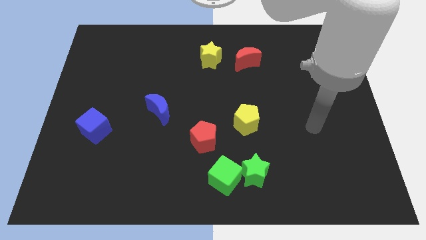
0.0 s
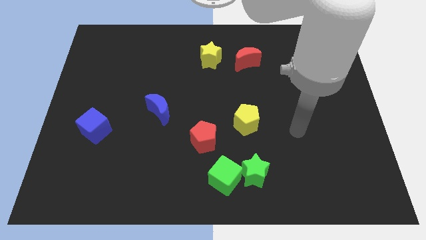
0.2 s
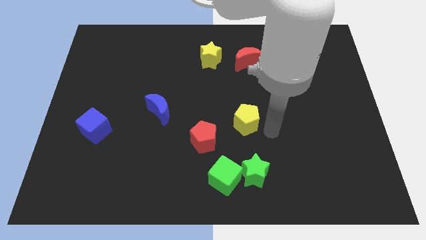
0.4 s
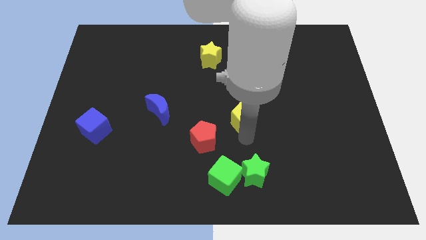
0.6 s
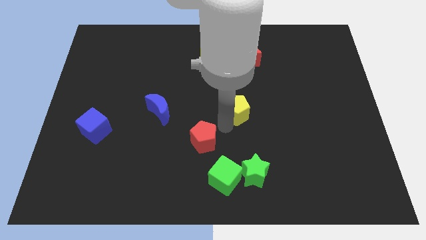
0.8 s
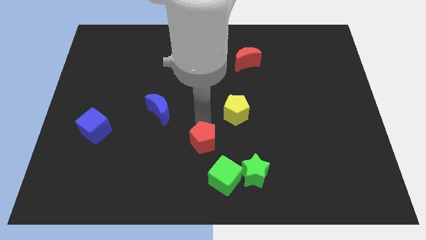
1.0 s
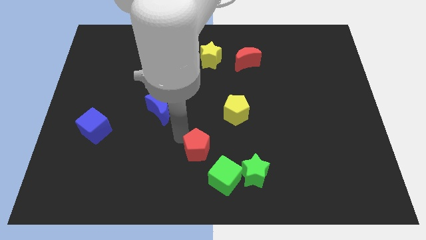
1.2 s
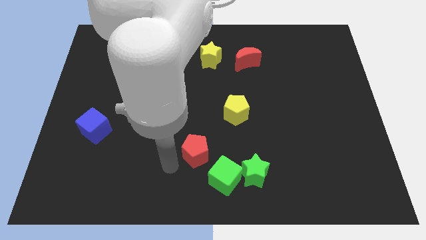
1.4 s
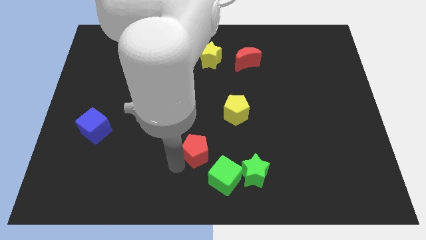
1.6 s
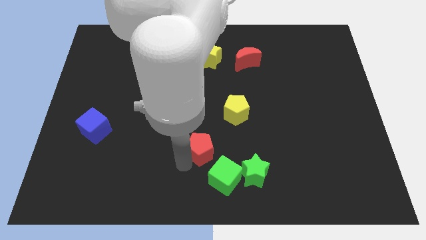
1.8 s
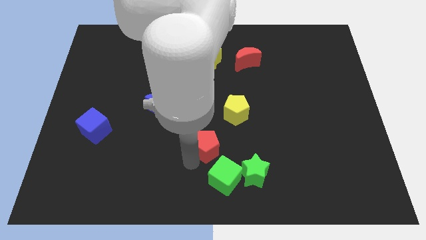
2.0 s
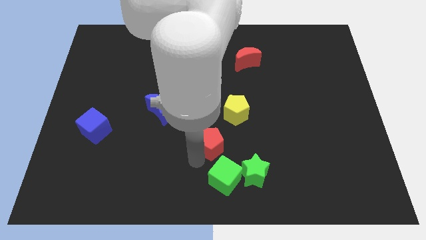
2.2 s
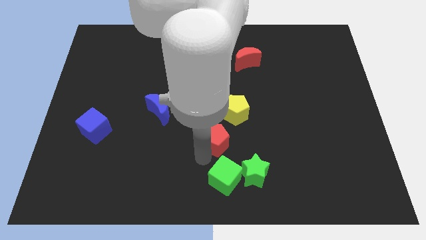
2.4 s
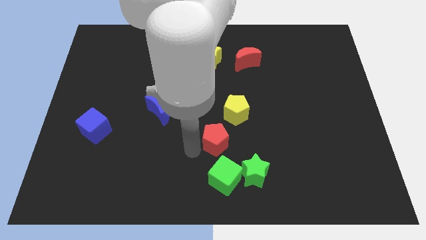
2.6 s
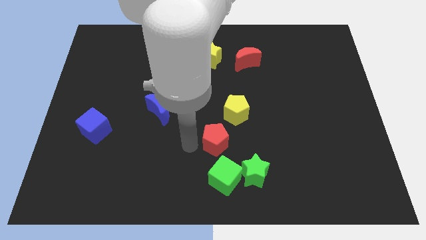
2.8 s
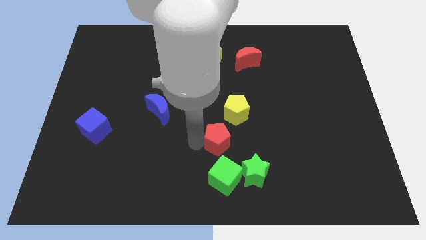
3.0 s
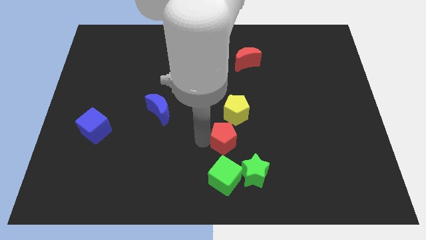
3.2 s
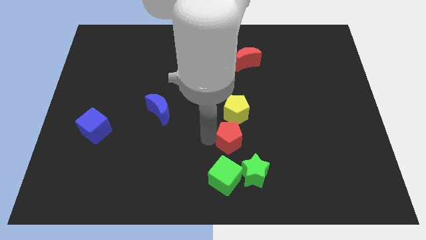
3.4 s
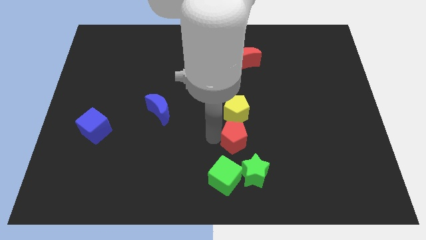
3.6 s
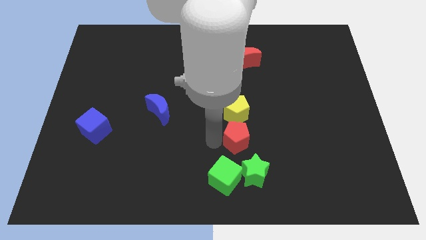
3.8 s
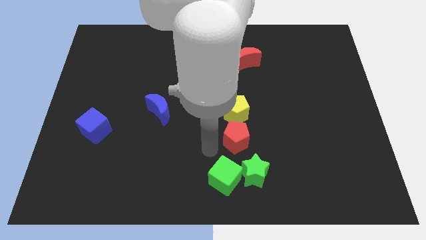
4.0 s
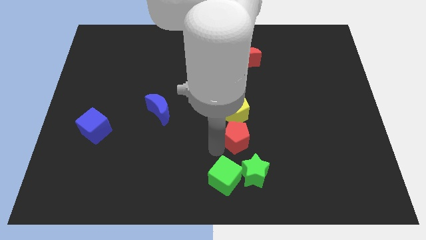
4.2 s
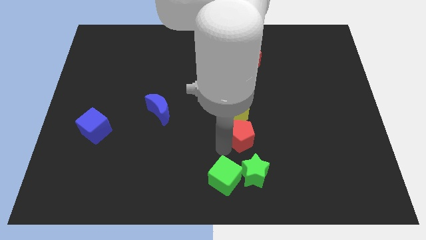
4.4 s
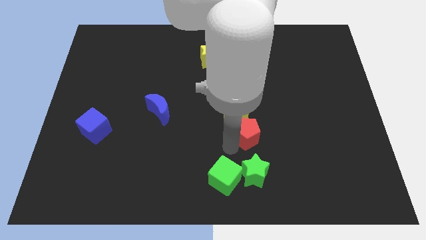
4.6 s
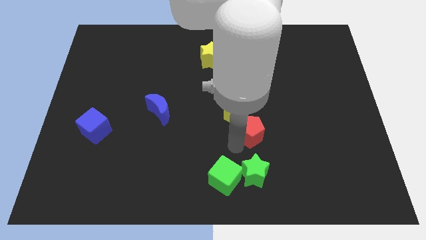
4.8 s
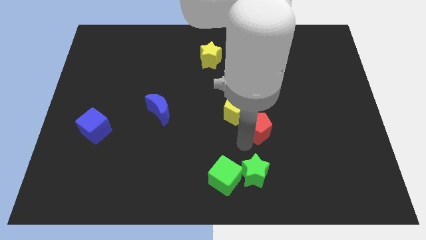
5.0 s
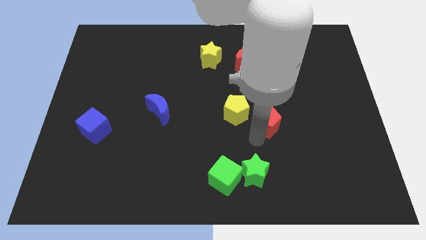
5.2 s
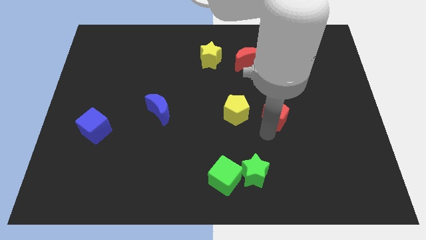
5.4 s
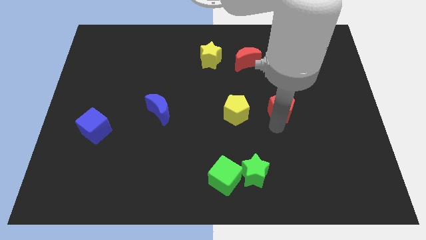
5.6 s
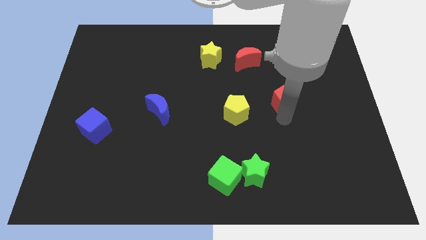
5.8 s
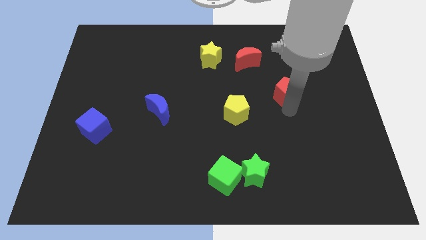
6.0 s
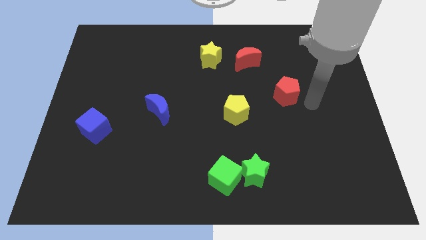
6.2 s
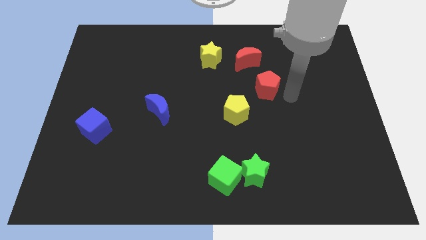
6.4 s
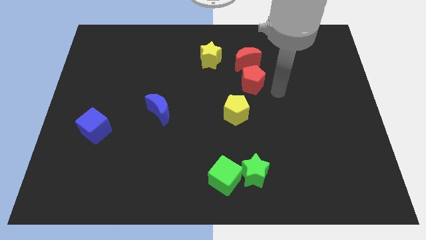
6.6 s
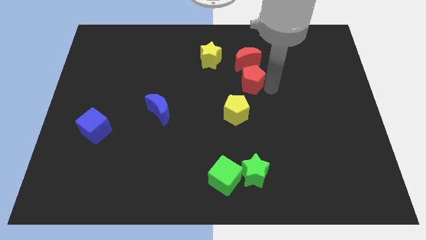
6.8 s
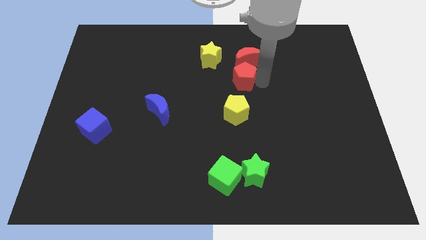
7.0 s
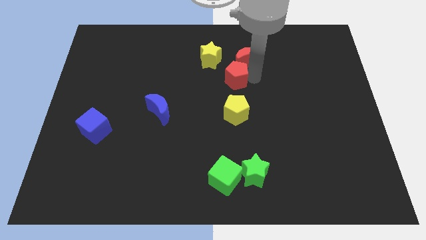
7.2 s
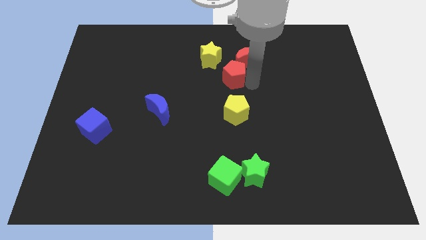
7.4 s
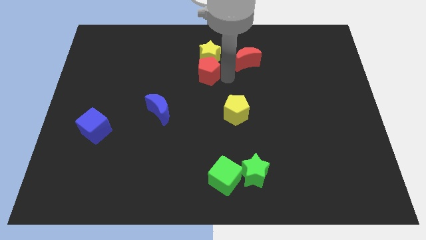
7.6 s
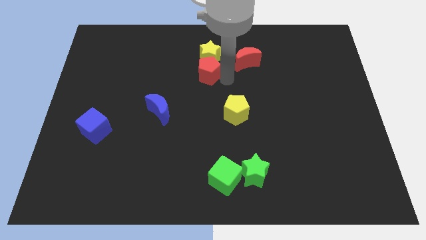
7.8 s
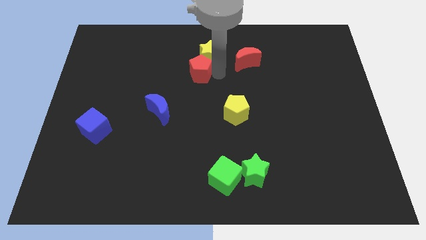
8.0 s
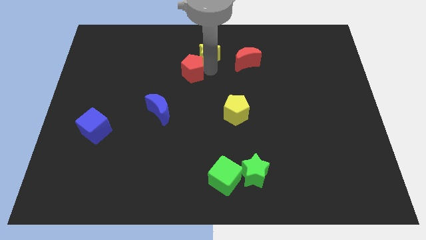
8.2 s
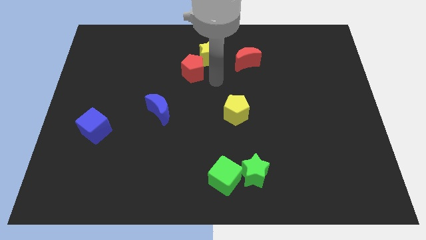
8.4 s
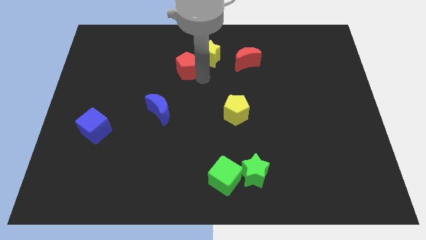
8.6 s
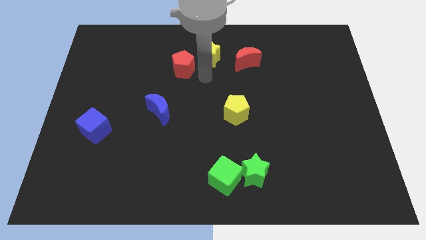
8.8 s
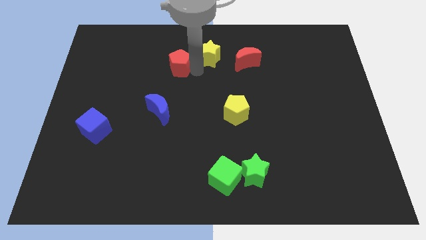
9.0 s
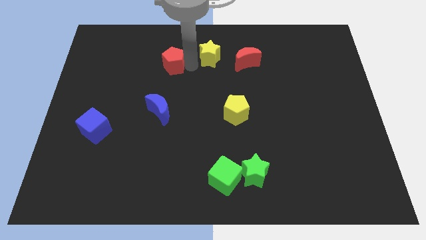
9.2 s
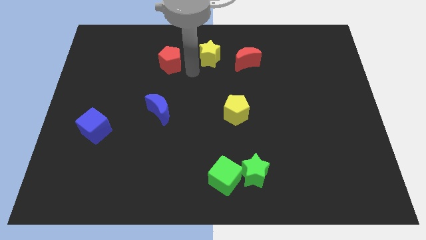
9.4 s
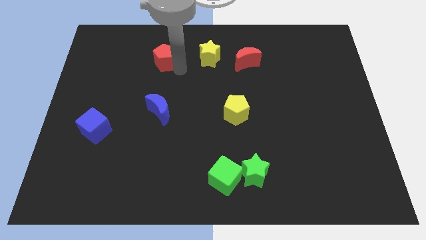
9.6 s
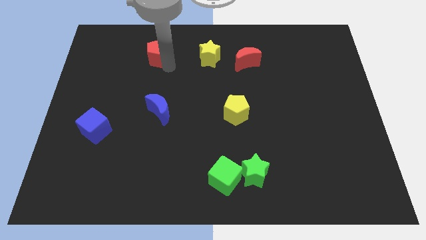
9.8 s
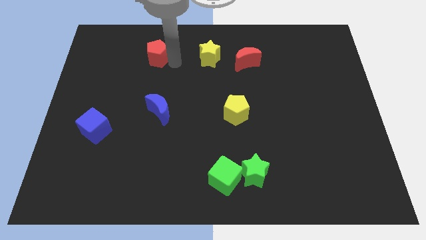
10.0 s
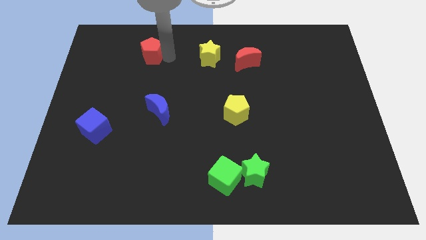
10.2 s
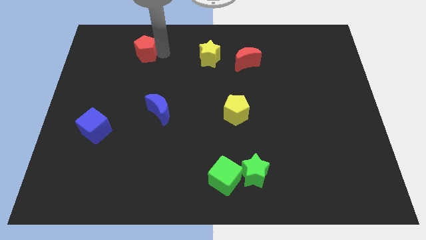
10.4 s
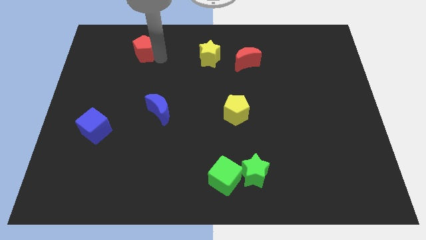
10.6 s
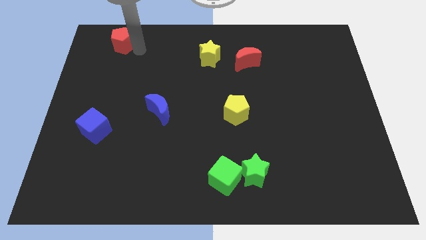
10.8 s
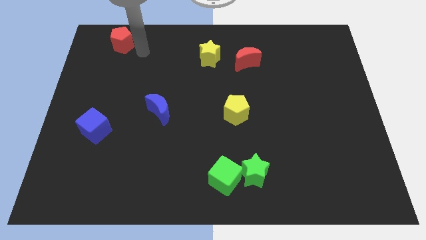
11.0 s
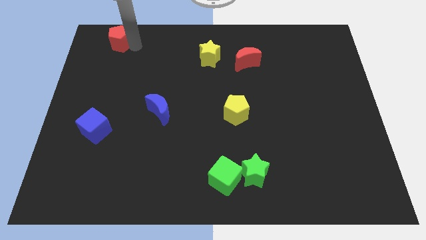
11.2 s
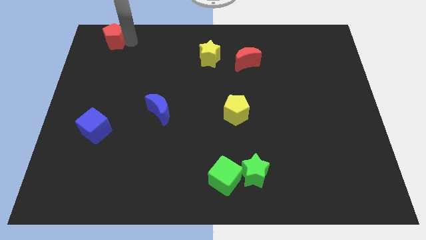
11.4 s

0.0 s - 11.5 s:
slide the red pentagon to the top left of the board

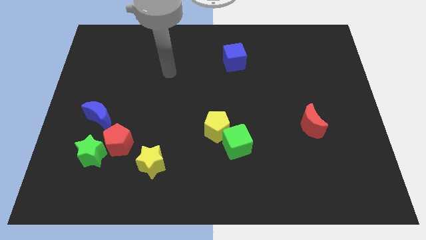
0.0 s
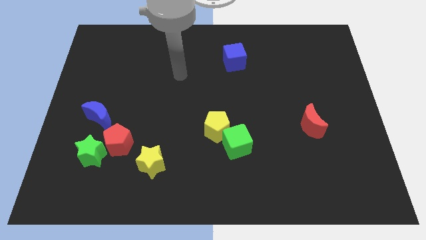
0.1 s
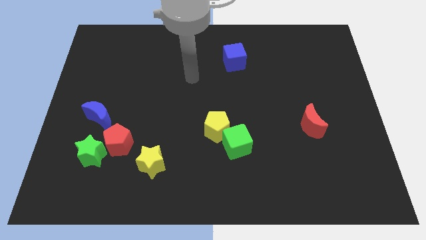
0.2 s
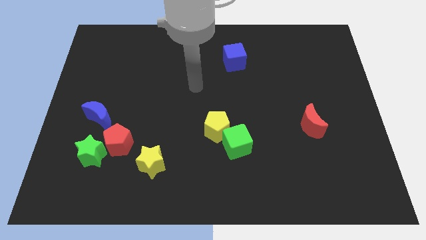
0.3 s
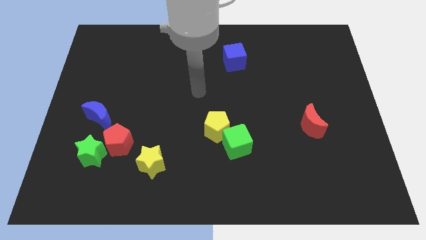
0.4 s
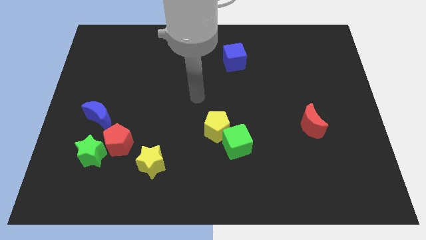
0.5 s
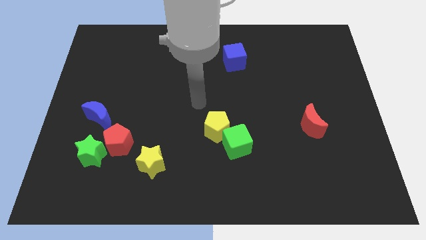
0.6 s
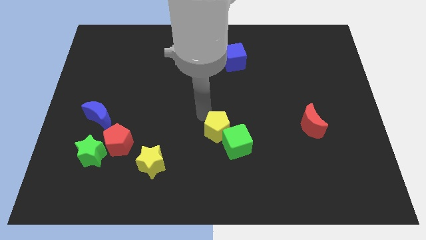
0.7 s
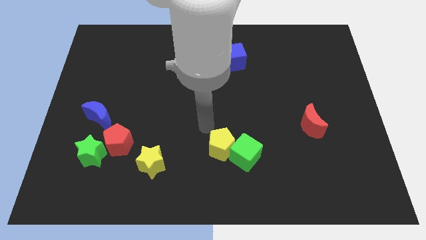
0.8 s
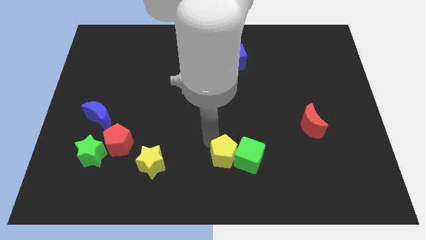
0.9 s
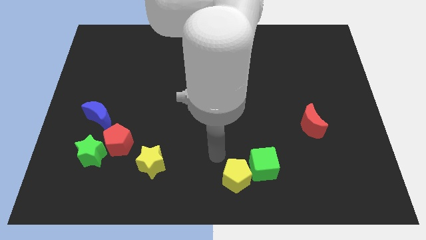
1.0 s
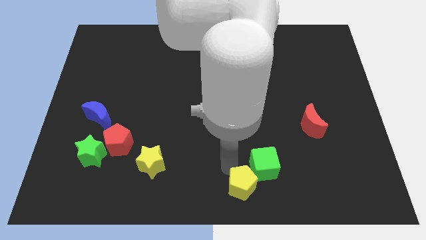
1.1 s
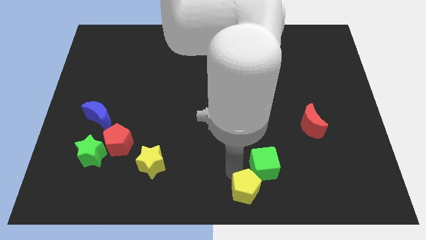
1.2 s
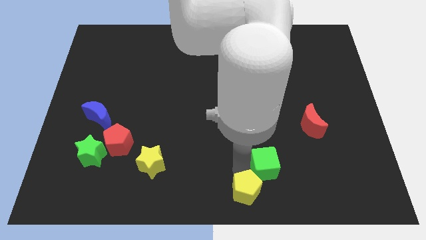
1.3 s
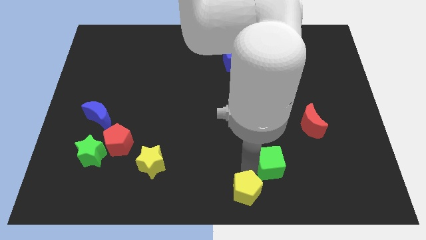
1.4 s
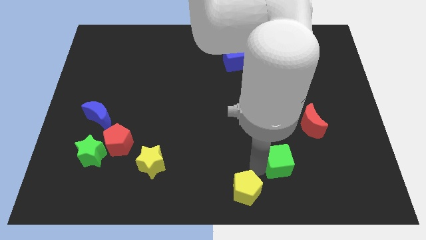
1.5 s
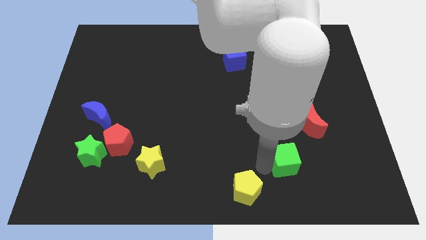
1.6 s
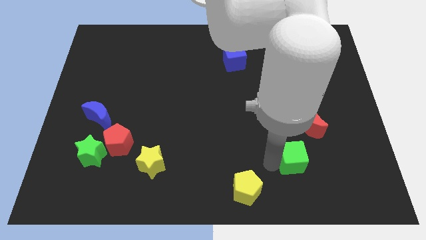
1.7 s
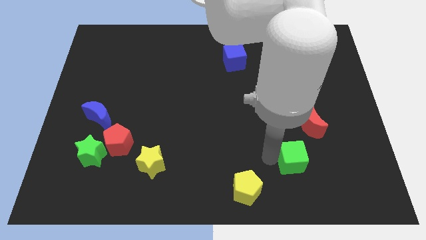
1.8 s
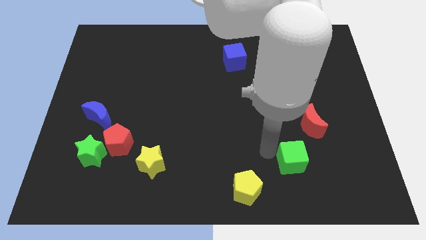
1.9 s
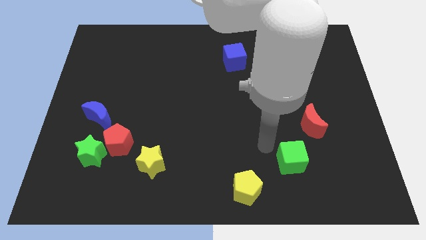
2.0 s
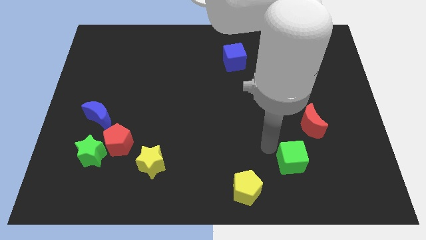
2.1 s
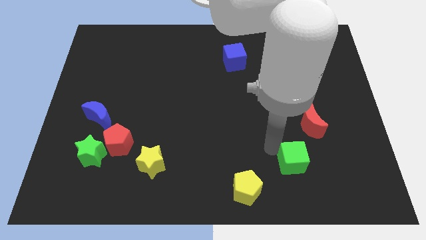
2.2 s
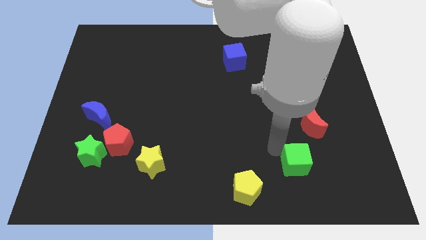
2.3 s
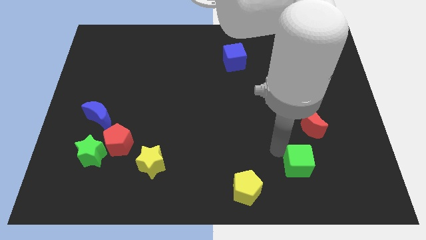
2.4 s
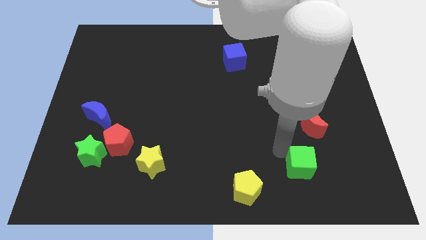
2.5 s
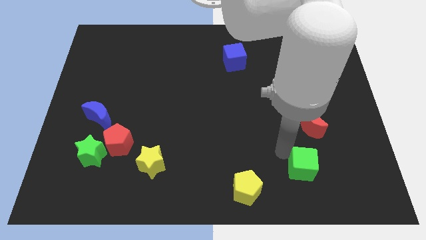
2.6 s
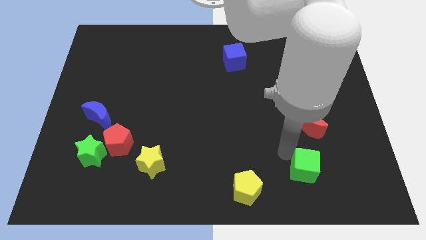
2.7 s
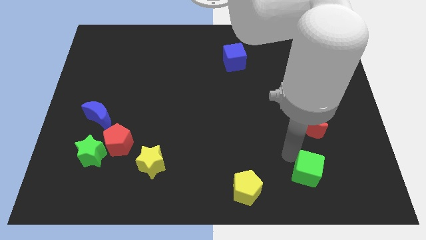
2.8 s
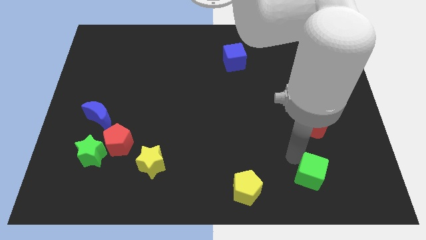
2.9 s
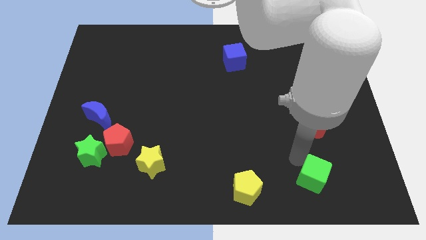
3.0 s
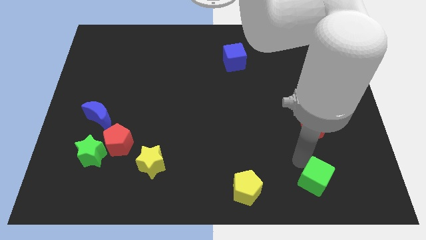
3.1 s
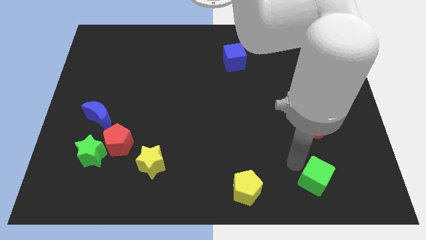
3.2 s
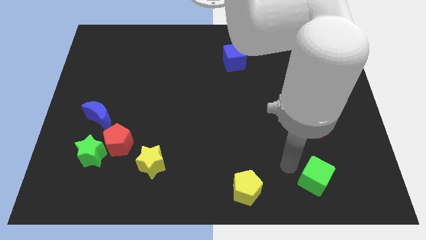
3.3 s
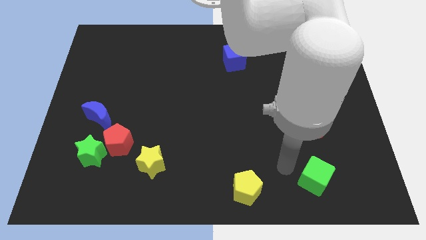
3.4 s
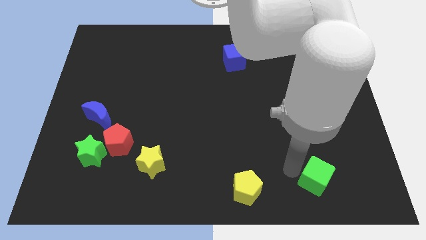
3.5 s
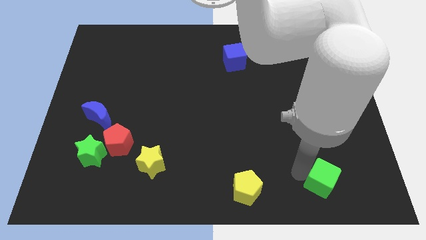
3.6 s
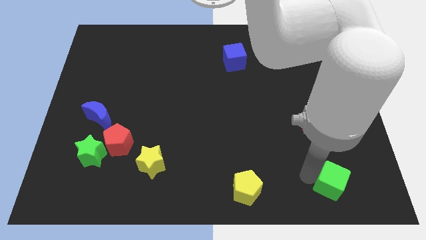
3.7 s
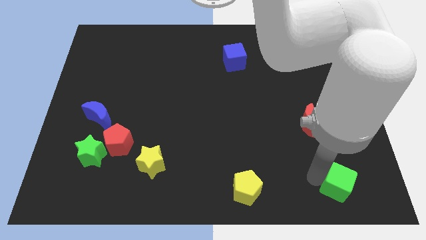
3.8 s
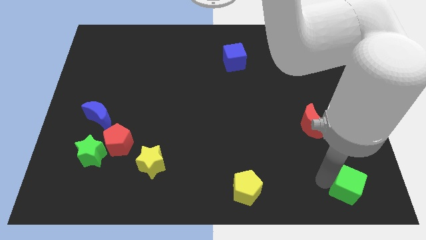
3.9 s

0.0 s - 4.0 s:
move the green cube to the bottom right
